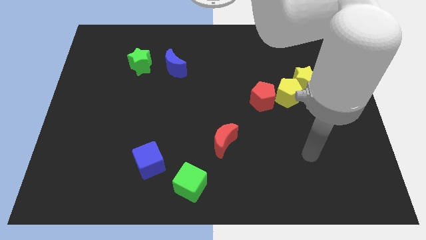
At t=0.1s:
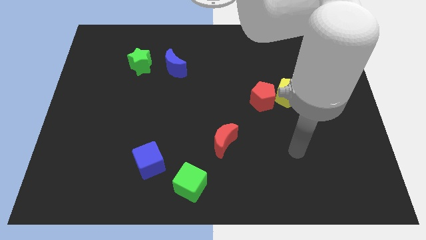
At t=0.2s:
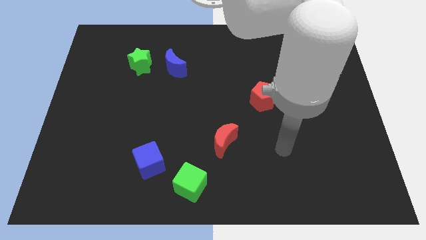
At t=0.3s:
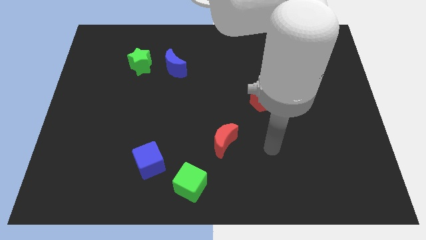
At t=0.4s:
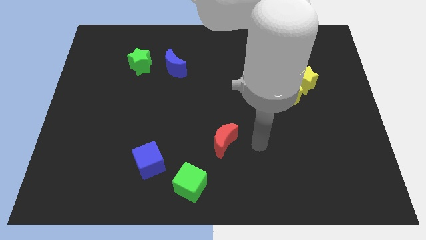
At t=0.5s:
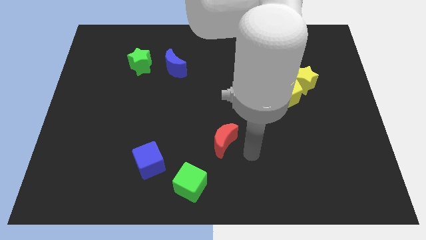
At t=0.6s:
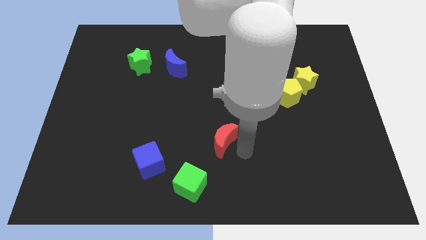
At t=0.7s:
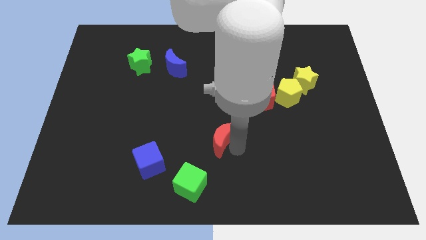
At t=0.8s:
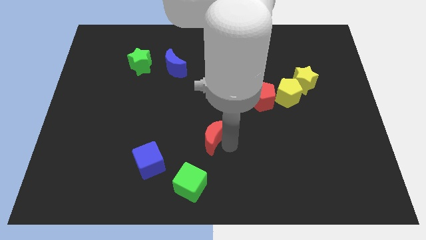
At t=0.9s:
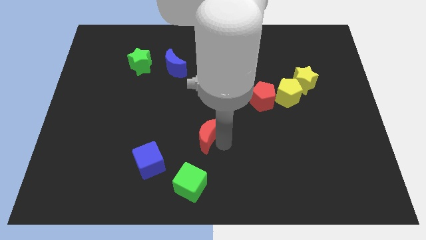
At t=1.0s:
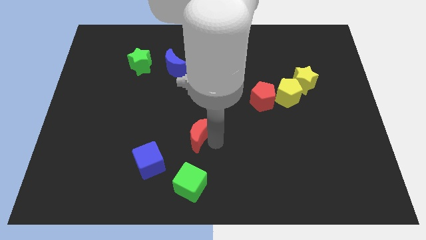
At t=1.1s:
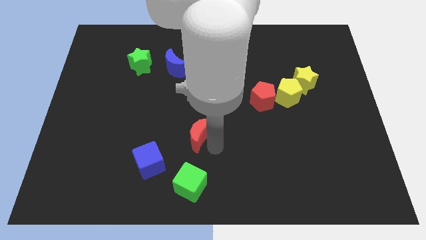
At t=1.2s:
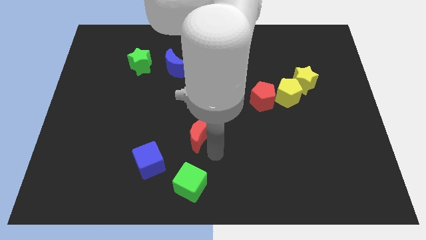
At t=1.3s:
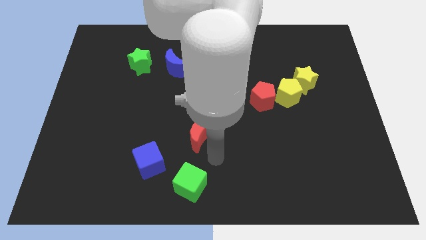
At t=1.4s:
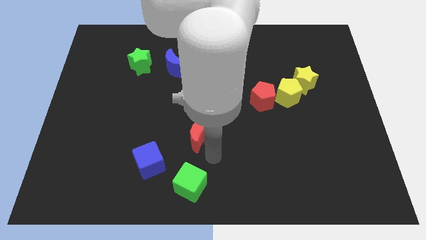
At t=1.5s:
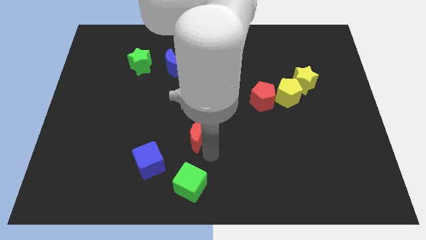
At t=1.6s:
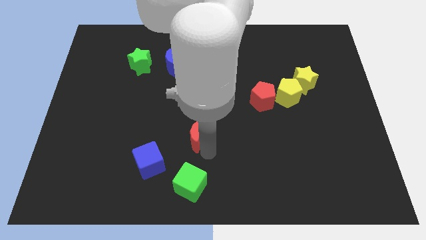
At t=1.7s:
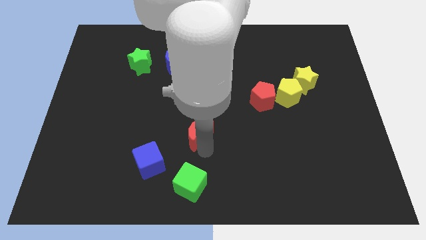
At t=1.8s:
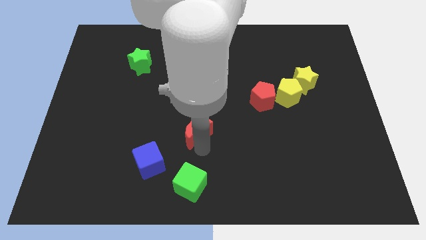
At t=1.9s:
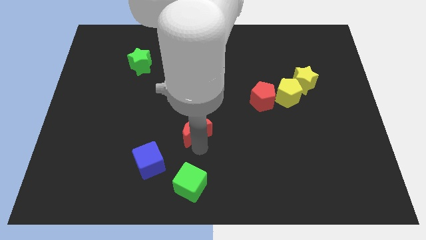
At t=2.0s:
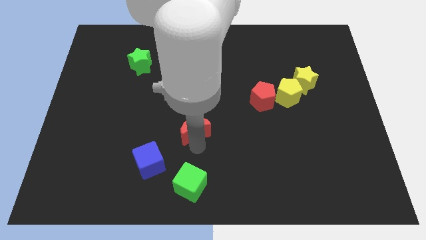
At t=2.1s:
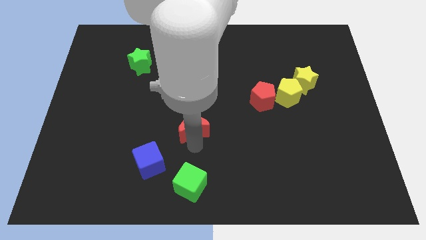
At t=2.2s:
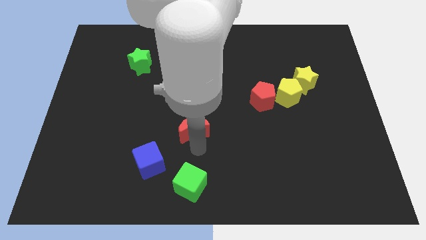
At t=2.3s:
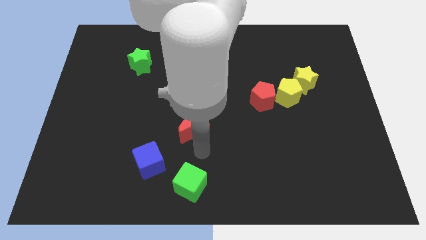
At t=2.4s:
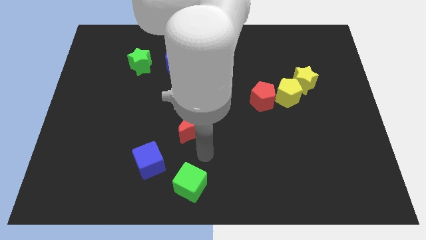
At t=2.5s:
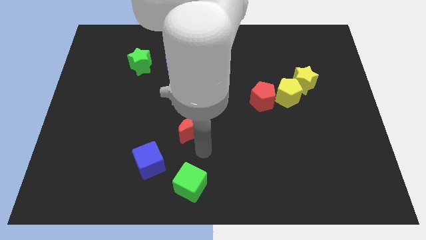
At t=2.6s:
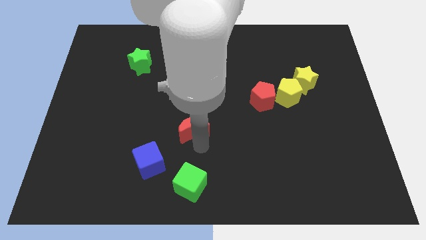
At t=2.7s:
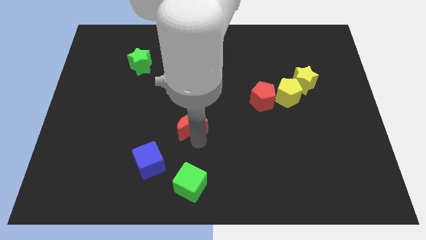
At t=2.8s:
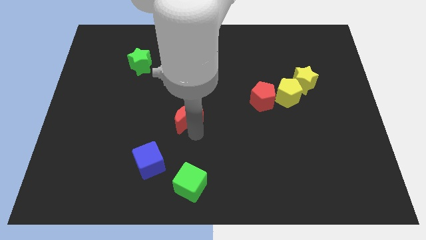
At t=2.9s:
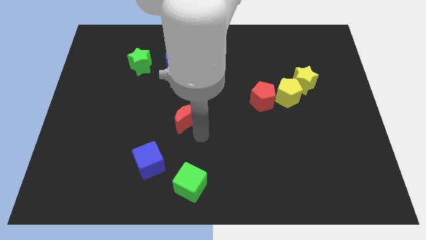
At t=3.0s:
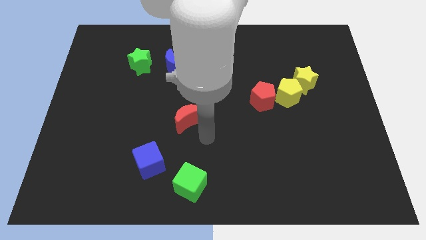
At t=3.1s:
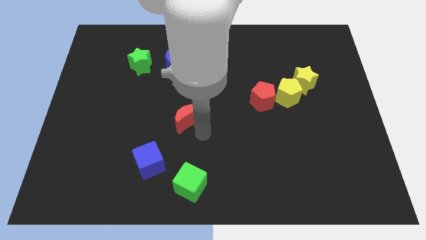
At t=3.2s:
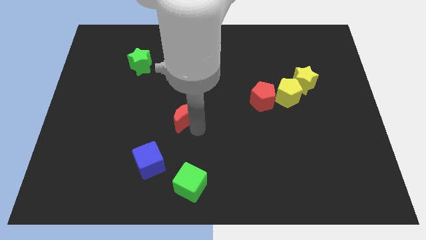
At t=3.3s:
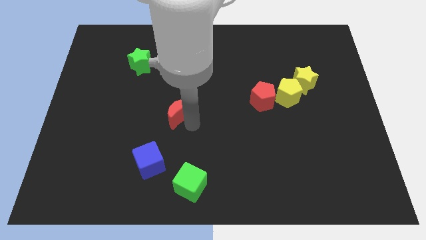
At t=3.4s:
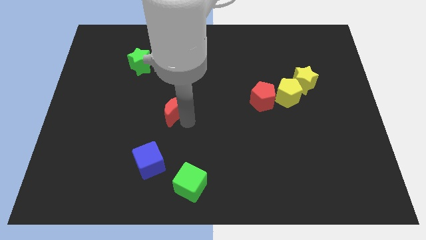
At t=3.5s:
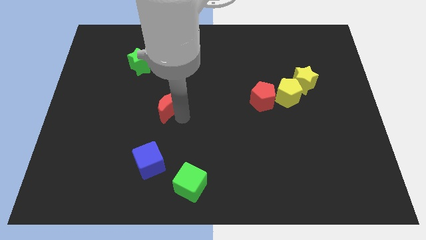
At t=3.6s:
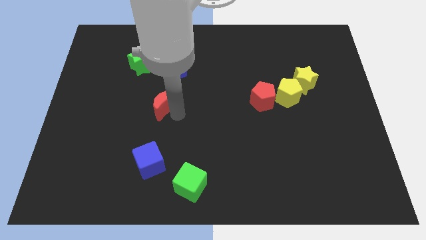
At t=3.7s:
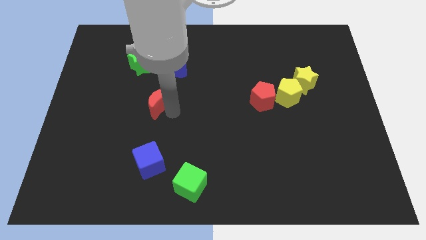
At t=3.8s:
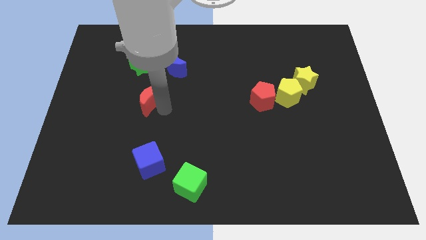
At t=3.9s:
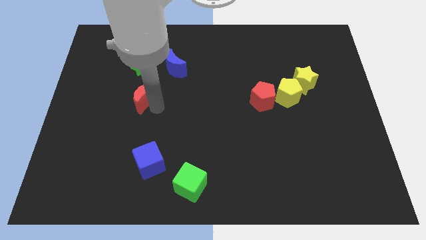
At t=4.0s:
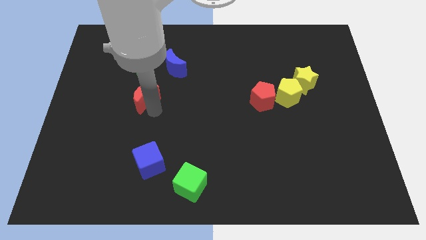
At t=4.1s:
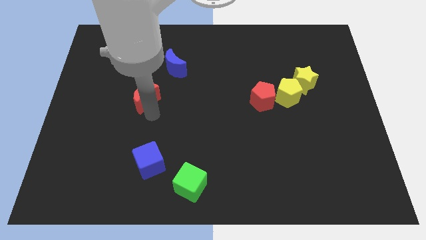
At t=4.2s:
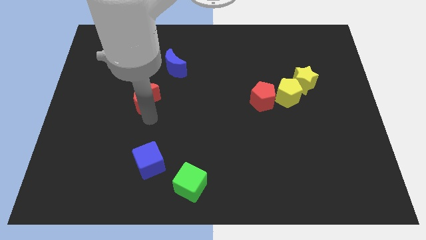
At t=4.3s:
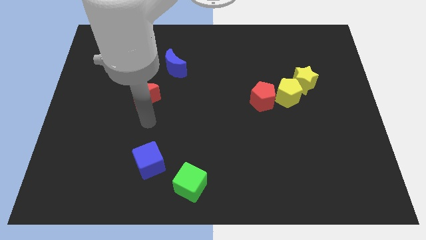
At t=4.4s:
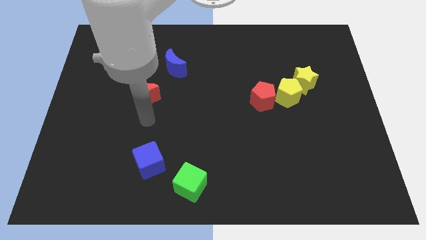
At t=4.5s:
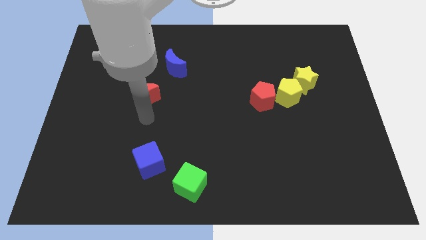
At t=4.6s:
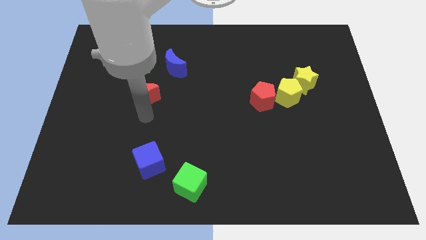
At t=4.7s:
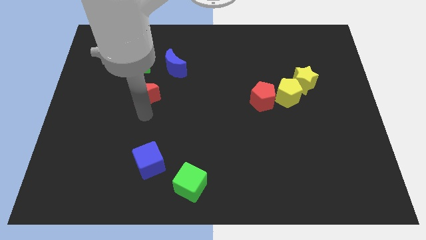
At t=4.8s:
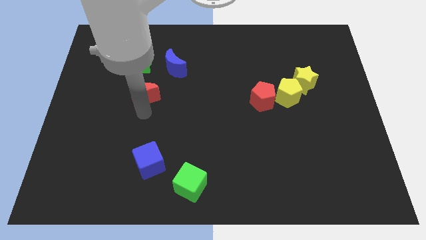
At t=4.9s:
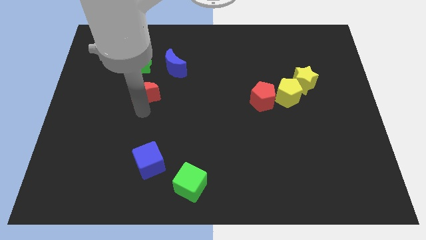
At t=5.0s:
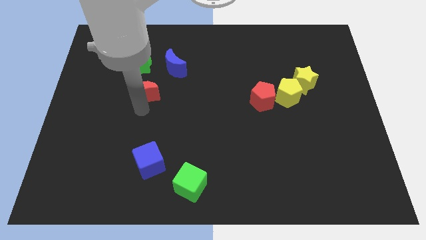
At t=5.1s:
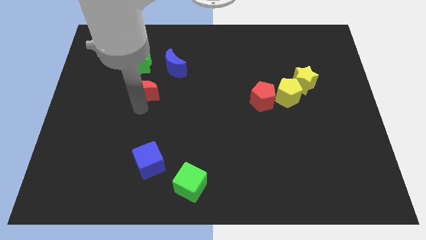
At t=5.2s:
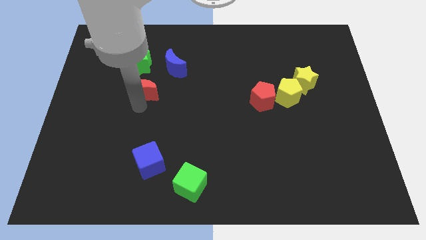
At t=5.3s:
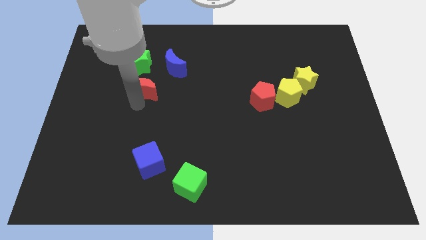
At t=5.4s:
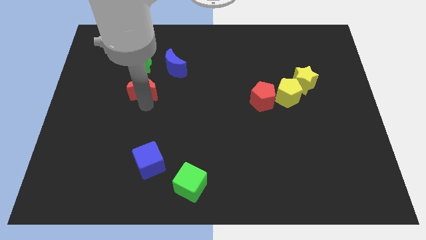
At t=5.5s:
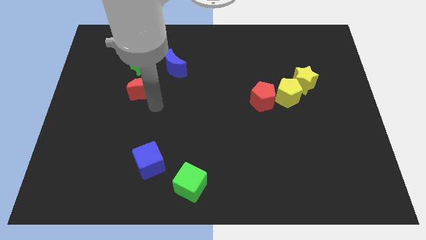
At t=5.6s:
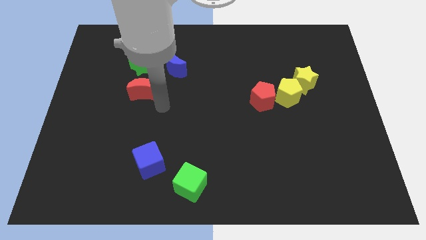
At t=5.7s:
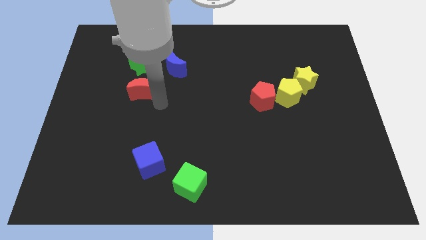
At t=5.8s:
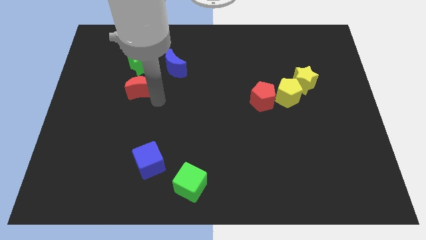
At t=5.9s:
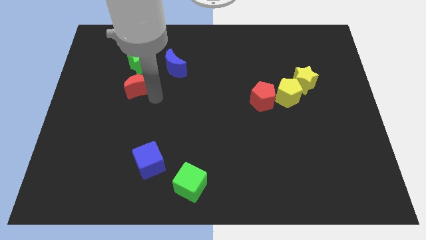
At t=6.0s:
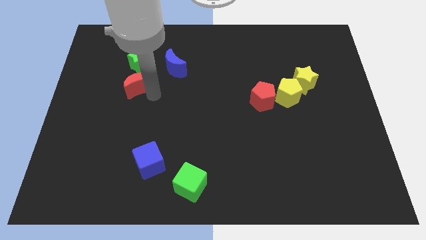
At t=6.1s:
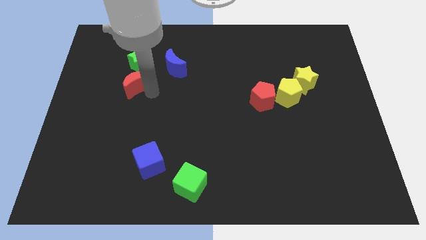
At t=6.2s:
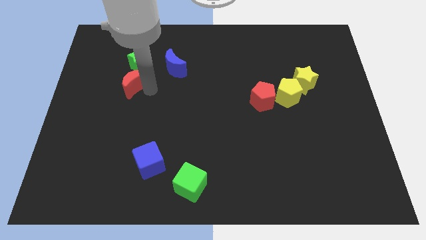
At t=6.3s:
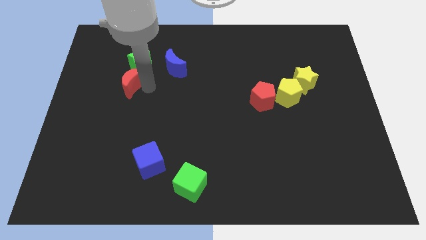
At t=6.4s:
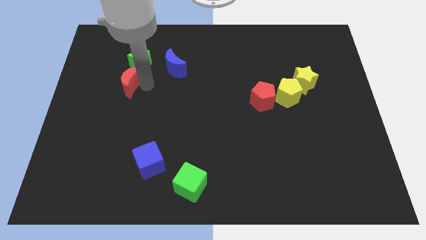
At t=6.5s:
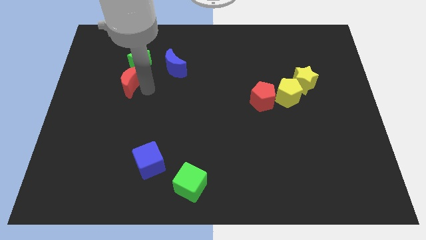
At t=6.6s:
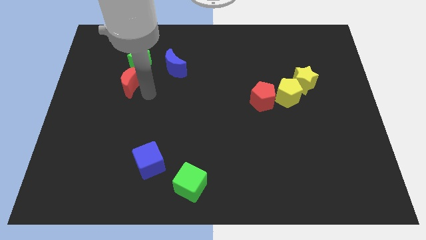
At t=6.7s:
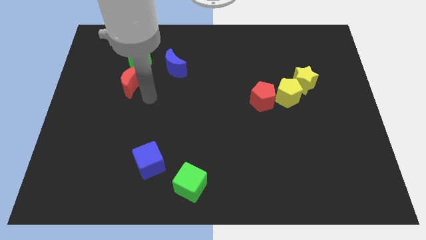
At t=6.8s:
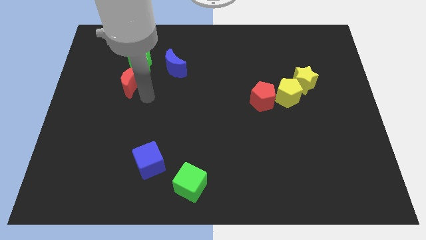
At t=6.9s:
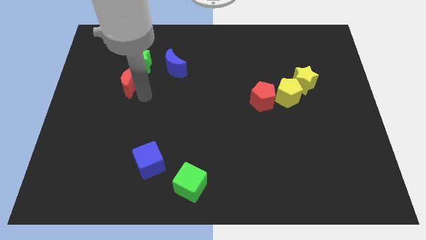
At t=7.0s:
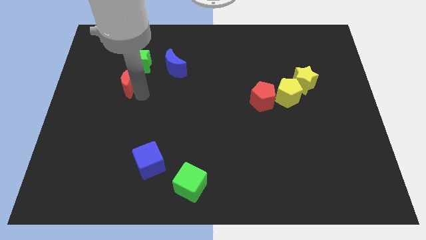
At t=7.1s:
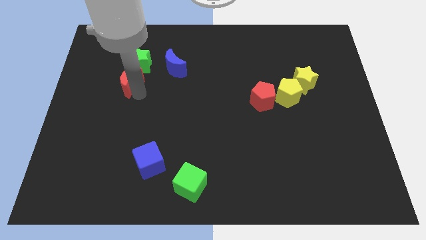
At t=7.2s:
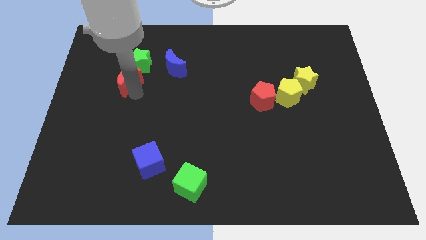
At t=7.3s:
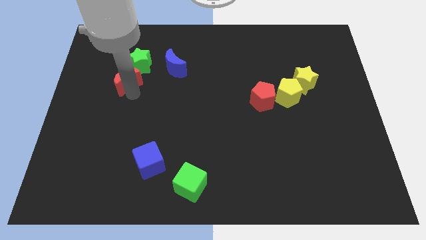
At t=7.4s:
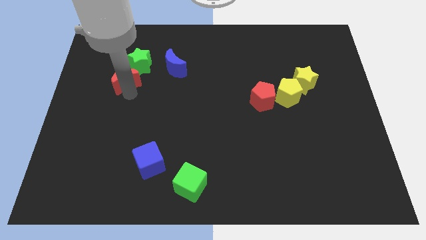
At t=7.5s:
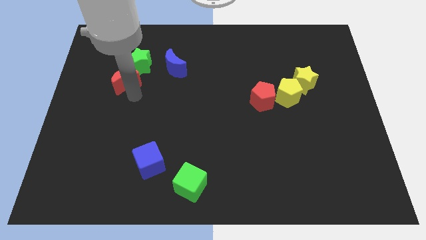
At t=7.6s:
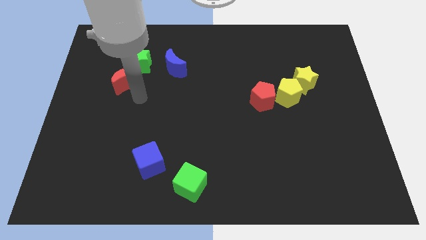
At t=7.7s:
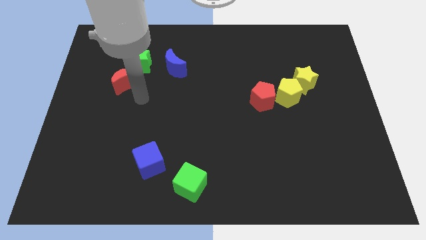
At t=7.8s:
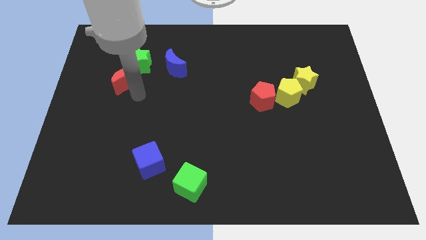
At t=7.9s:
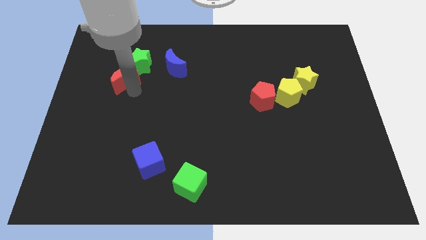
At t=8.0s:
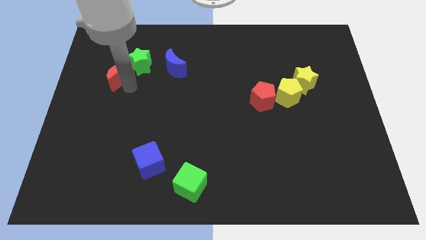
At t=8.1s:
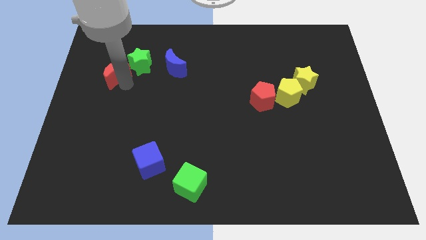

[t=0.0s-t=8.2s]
push the red moon to the left side of the green star
